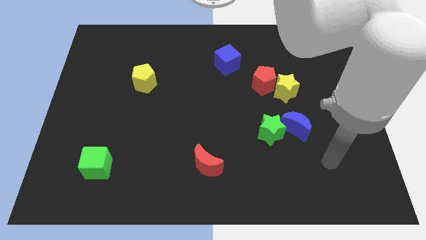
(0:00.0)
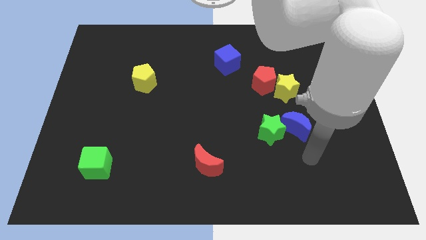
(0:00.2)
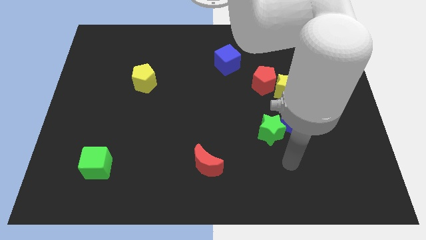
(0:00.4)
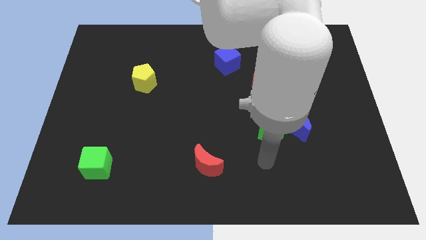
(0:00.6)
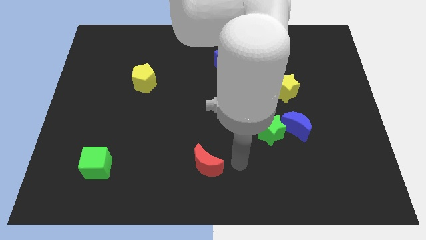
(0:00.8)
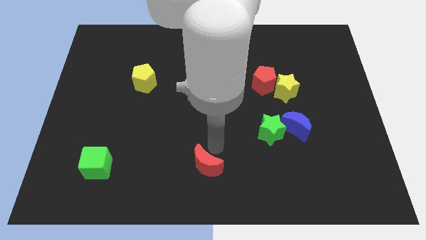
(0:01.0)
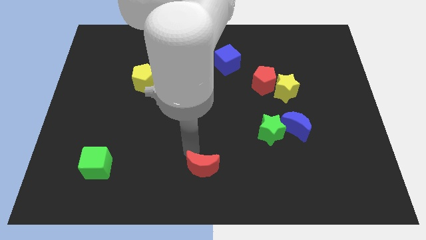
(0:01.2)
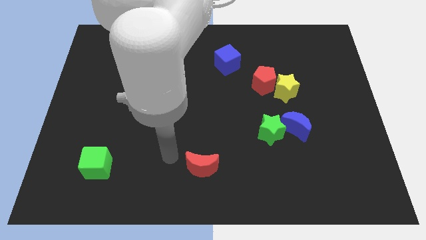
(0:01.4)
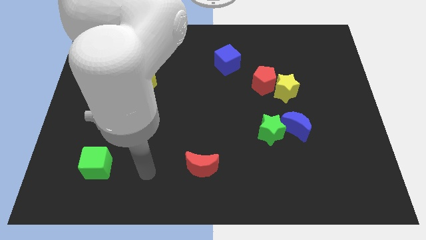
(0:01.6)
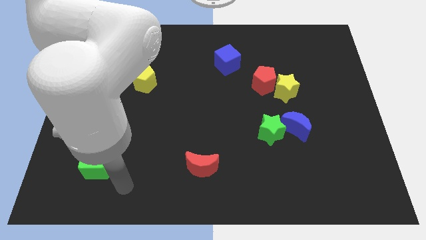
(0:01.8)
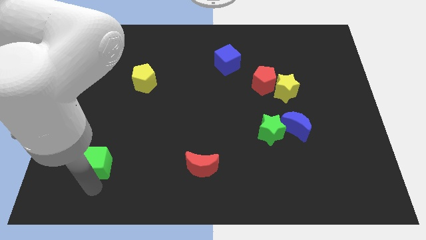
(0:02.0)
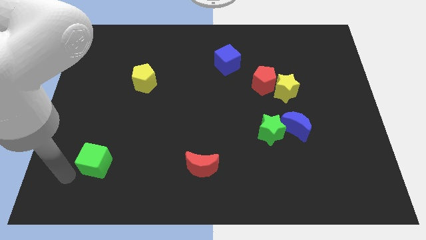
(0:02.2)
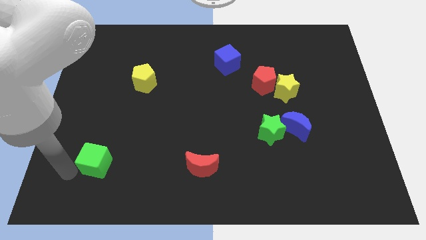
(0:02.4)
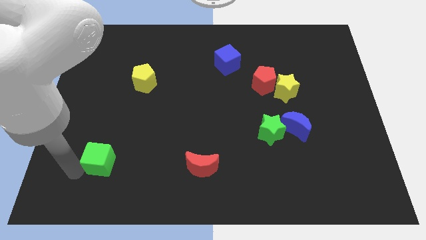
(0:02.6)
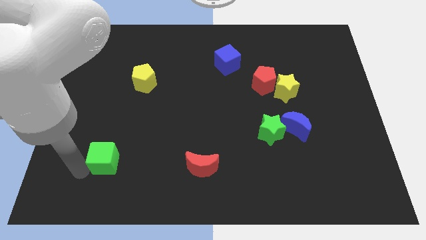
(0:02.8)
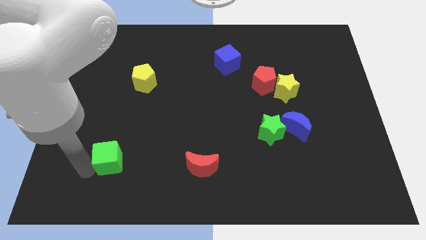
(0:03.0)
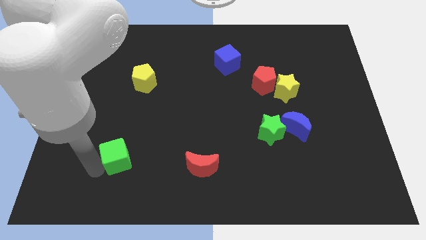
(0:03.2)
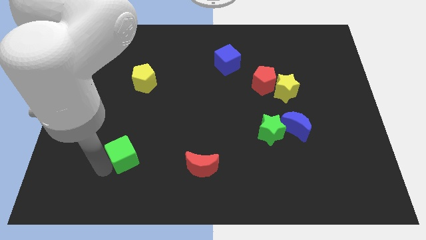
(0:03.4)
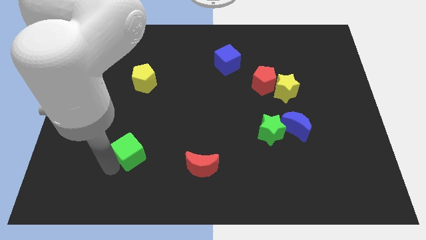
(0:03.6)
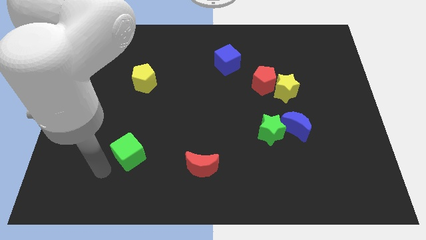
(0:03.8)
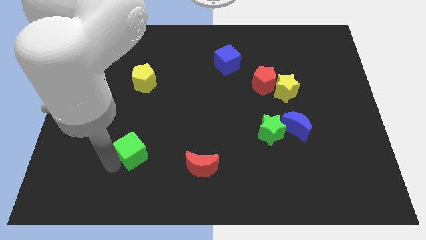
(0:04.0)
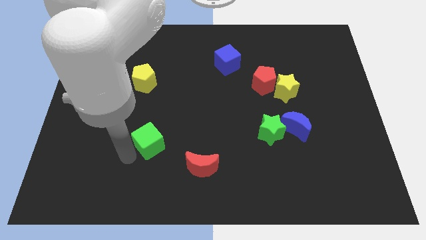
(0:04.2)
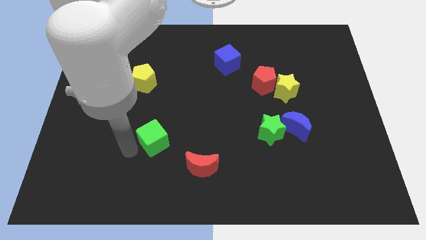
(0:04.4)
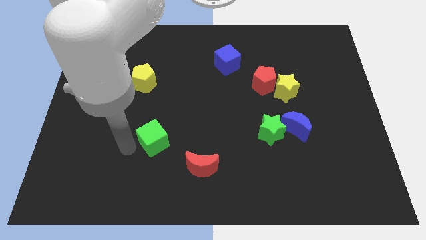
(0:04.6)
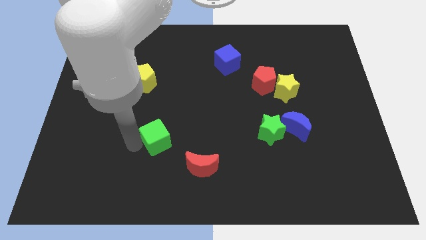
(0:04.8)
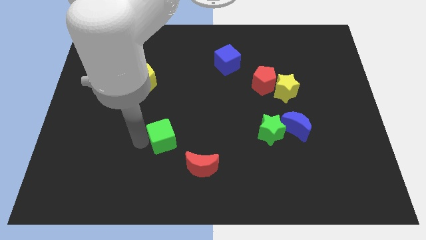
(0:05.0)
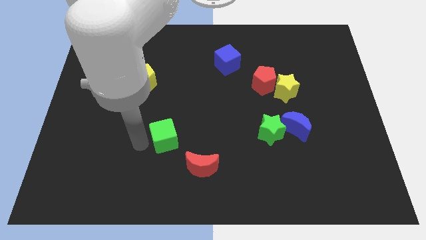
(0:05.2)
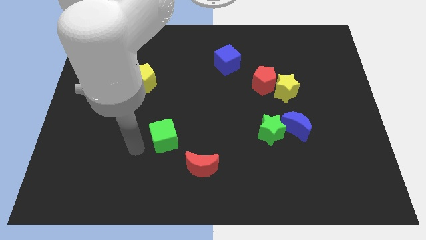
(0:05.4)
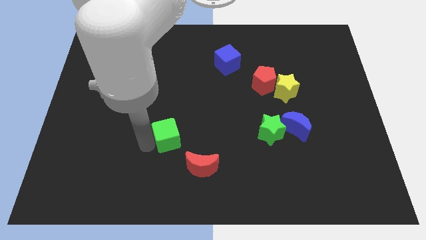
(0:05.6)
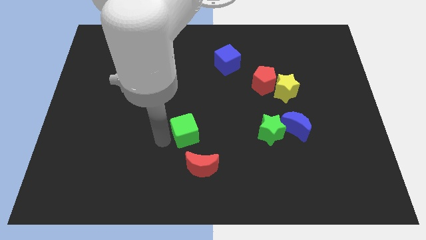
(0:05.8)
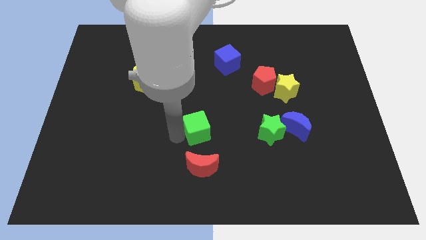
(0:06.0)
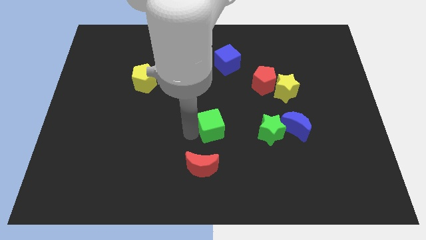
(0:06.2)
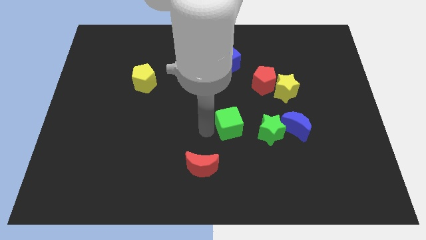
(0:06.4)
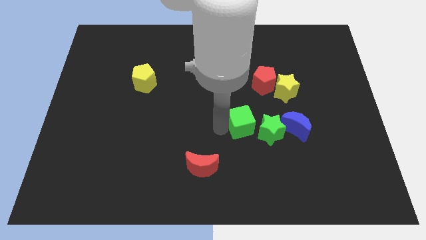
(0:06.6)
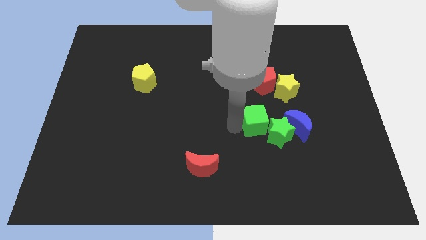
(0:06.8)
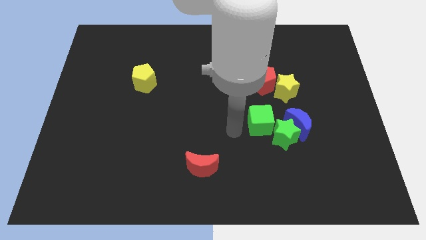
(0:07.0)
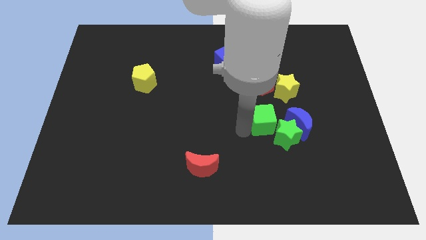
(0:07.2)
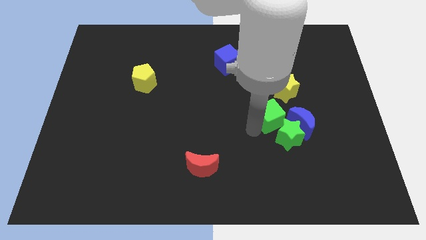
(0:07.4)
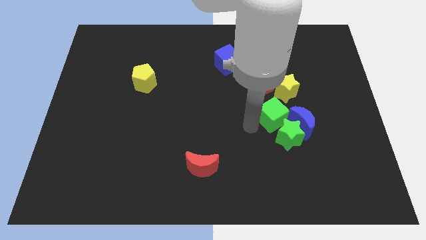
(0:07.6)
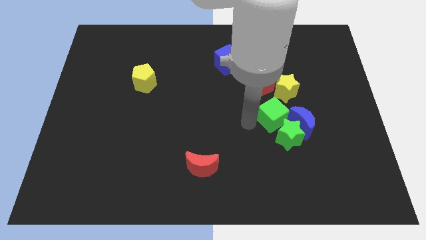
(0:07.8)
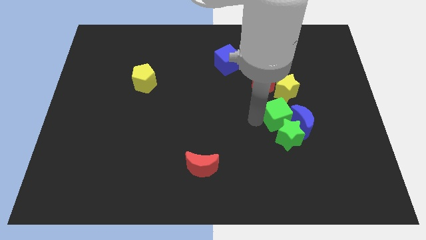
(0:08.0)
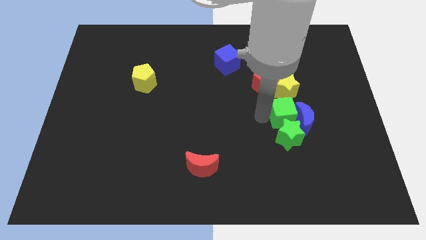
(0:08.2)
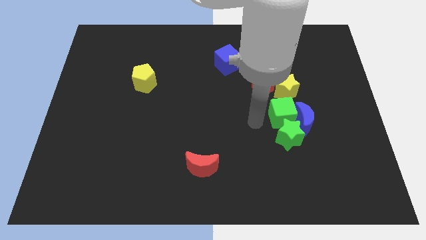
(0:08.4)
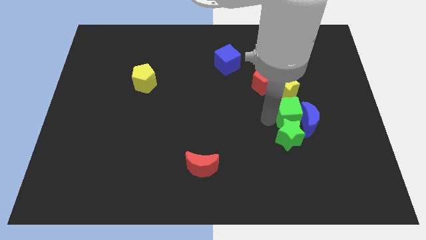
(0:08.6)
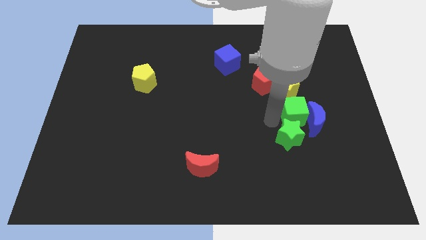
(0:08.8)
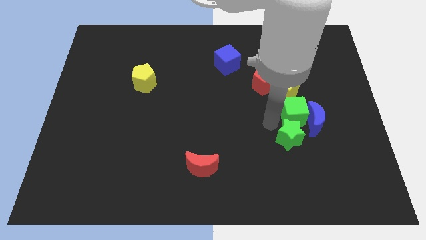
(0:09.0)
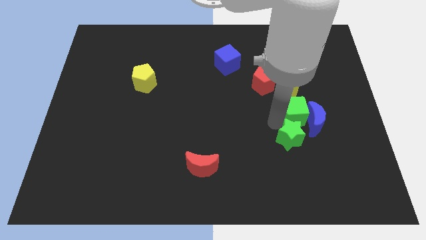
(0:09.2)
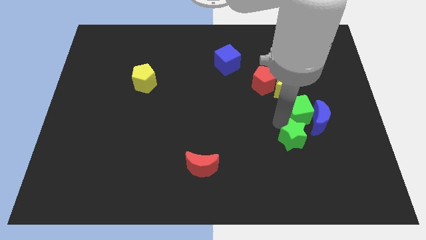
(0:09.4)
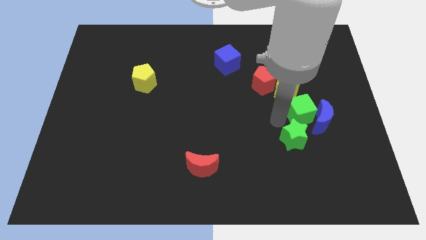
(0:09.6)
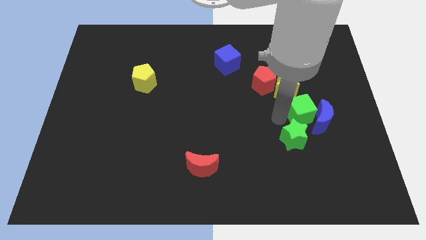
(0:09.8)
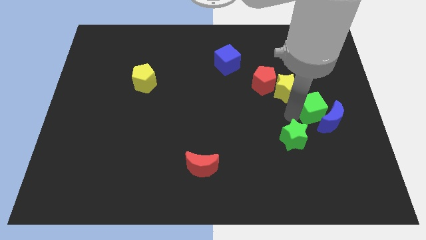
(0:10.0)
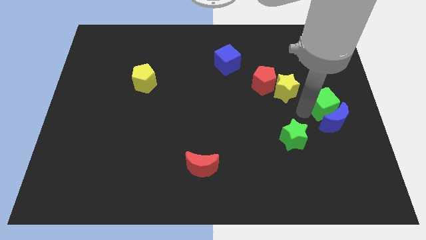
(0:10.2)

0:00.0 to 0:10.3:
slide the green cube to the right side

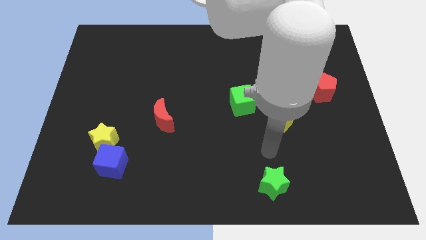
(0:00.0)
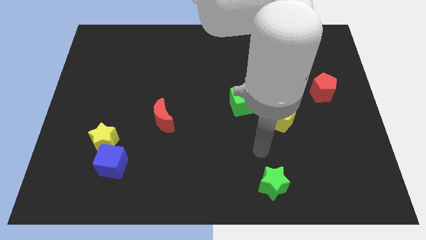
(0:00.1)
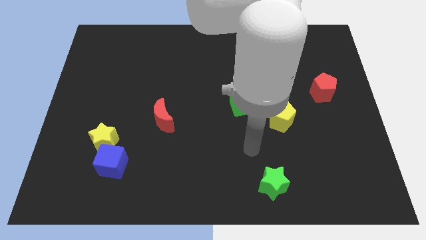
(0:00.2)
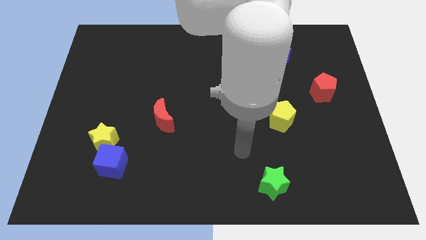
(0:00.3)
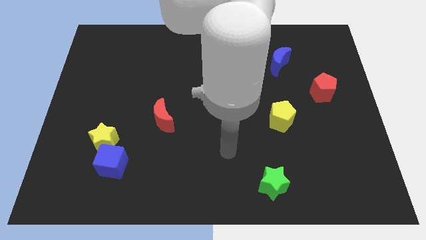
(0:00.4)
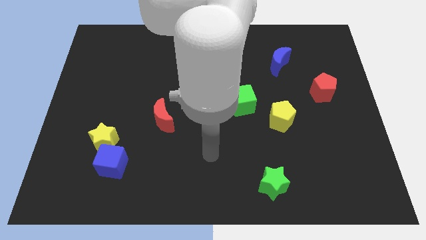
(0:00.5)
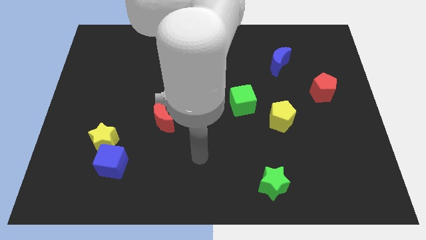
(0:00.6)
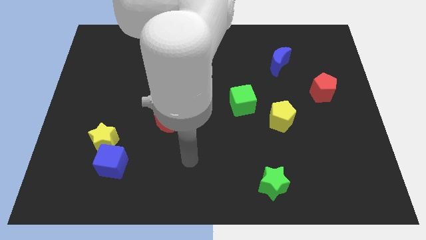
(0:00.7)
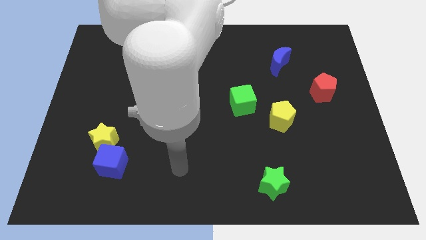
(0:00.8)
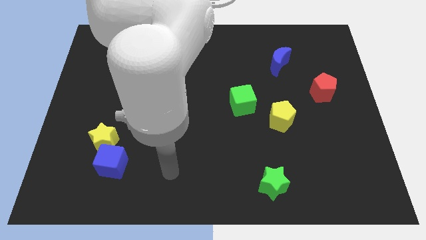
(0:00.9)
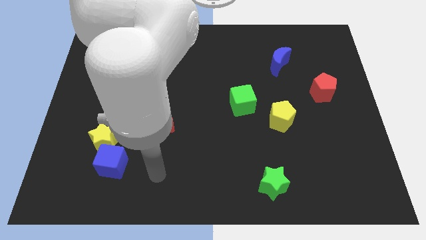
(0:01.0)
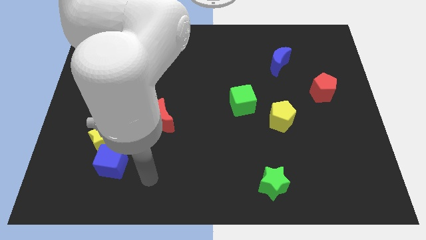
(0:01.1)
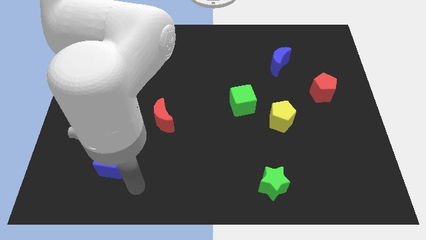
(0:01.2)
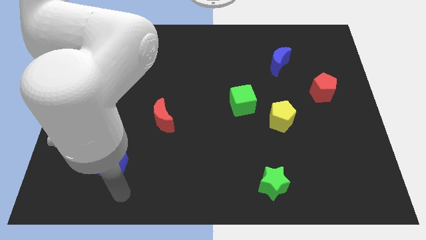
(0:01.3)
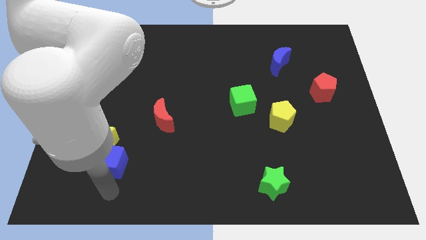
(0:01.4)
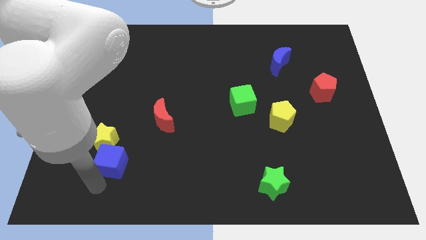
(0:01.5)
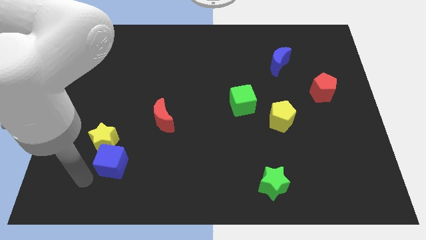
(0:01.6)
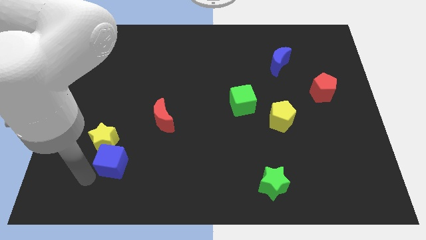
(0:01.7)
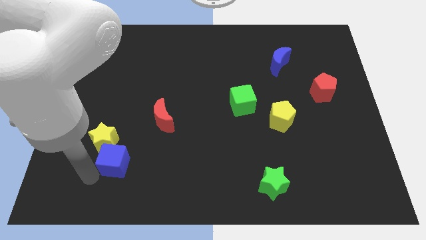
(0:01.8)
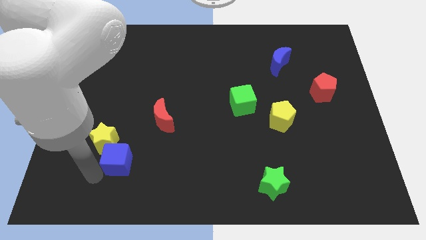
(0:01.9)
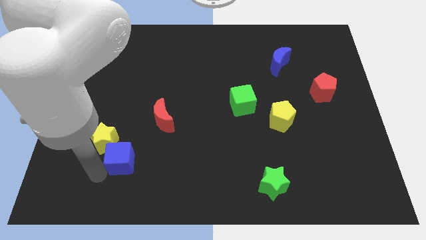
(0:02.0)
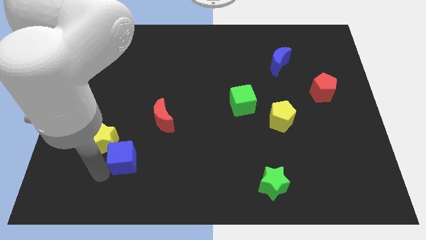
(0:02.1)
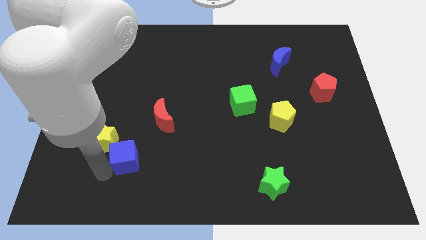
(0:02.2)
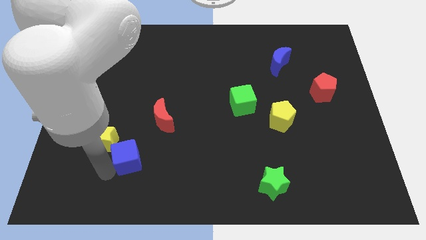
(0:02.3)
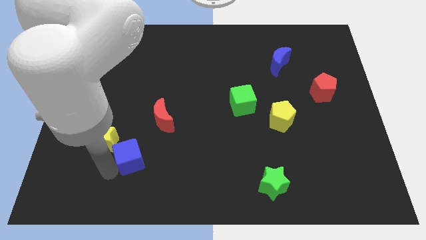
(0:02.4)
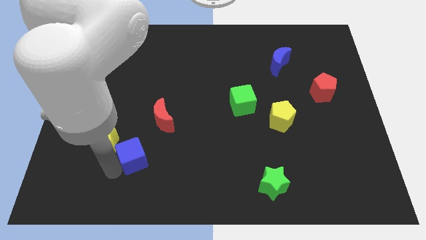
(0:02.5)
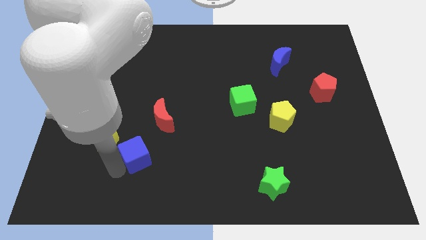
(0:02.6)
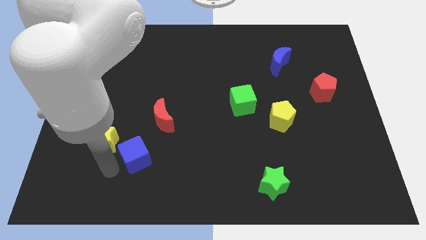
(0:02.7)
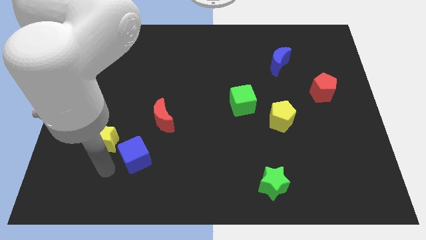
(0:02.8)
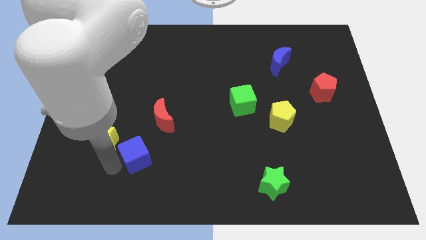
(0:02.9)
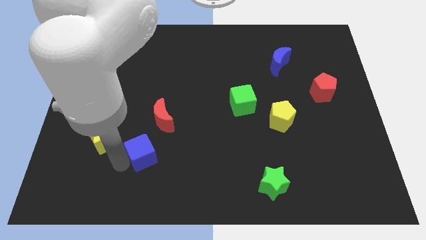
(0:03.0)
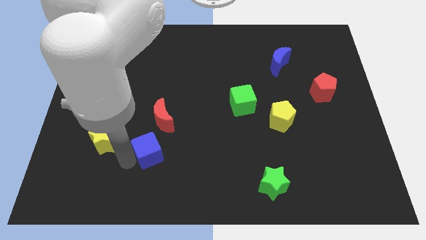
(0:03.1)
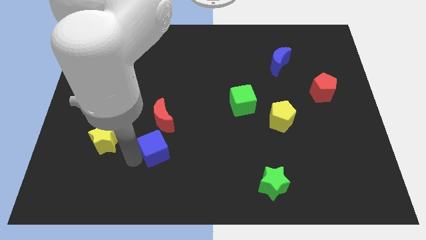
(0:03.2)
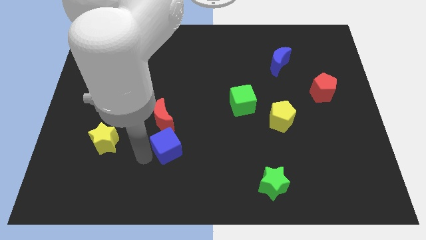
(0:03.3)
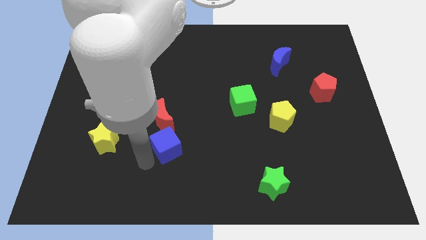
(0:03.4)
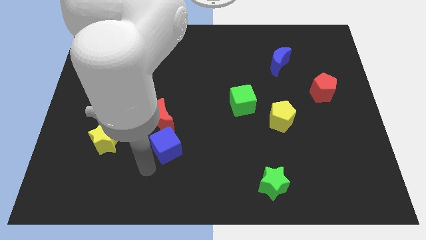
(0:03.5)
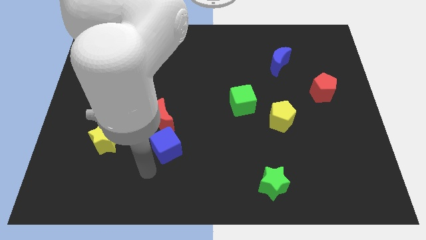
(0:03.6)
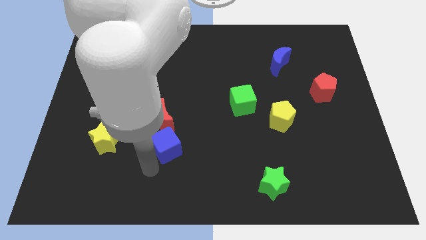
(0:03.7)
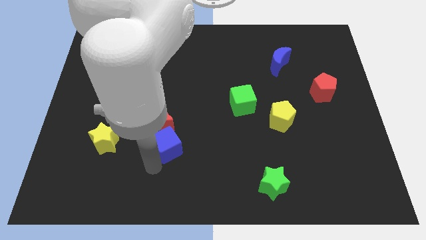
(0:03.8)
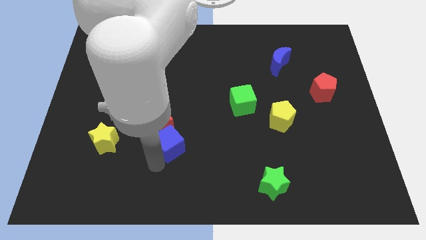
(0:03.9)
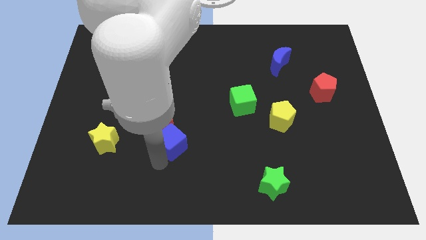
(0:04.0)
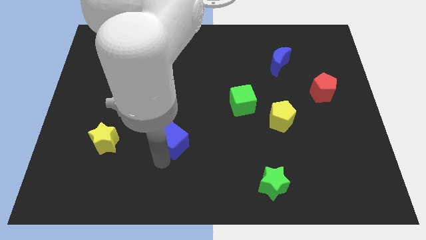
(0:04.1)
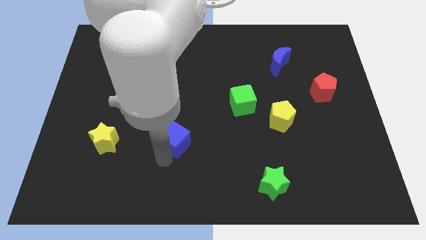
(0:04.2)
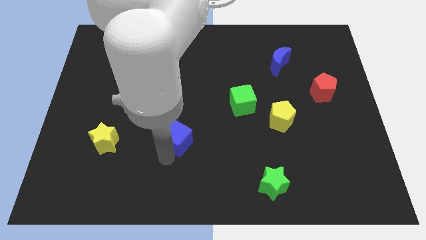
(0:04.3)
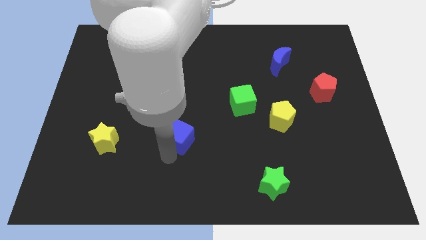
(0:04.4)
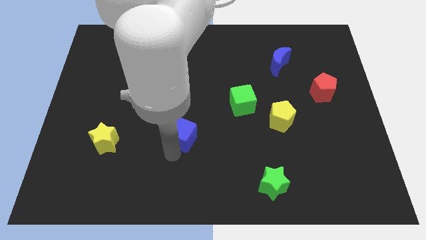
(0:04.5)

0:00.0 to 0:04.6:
push the blue cube to the center of the board
